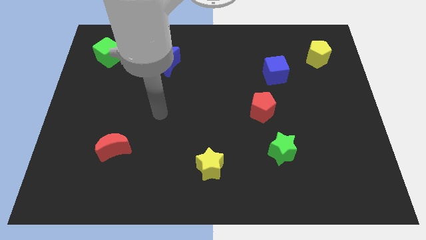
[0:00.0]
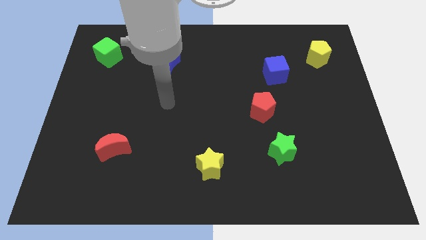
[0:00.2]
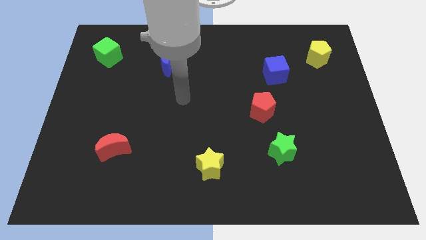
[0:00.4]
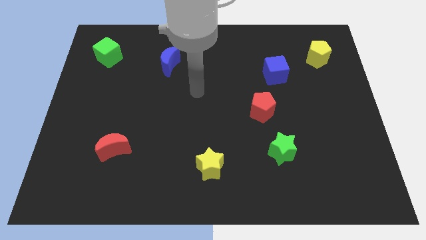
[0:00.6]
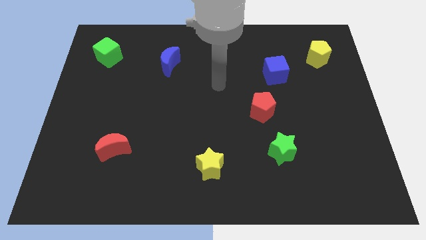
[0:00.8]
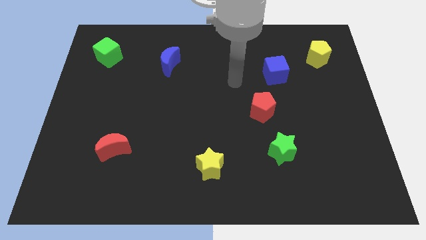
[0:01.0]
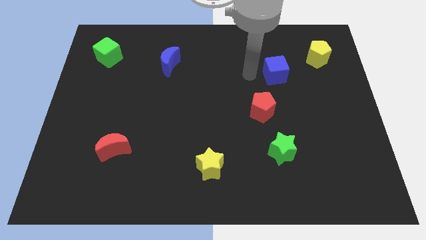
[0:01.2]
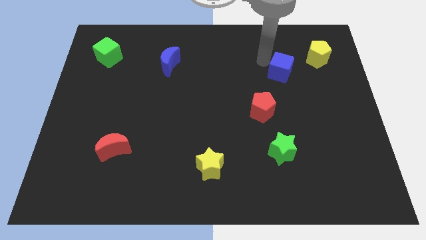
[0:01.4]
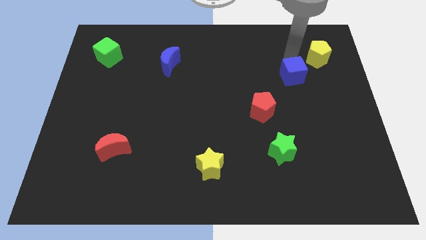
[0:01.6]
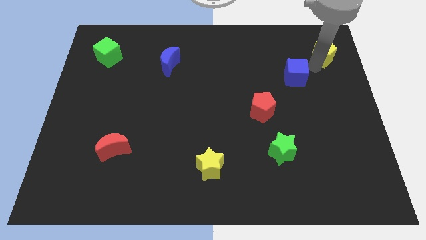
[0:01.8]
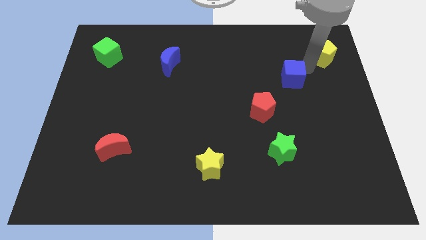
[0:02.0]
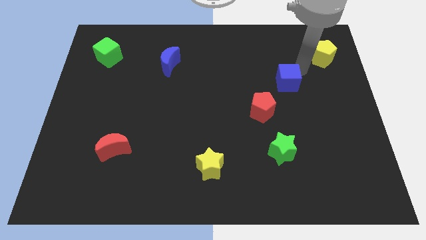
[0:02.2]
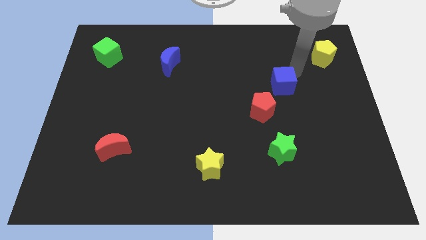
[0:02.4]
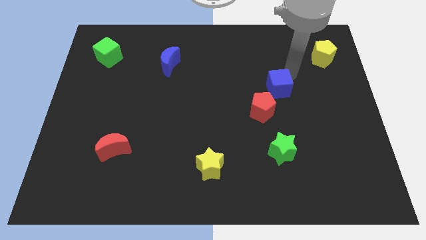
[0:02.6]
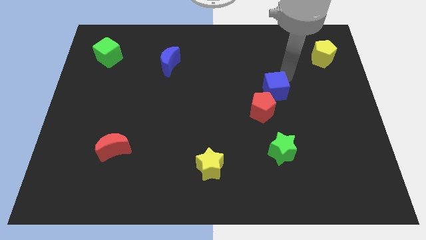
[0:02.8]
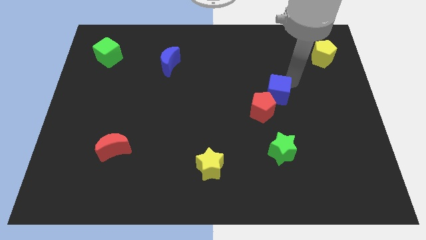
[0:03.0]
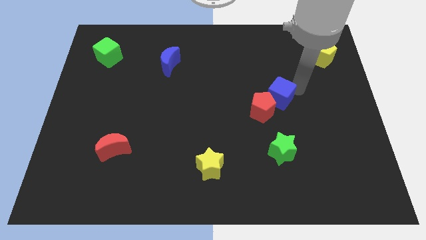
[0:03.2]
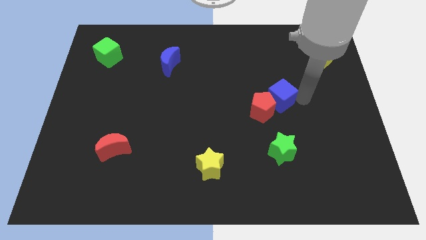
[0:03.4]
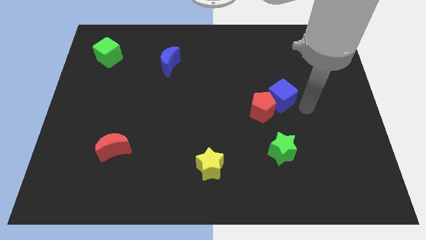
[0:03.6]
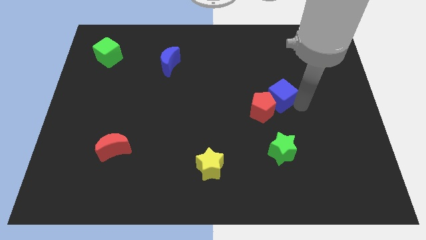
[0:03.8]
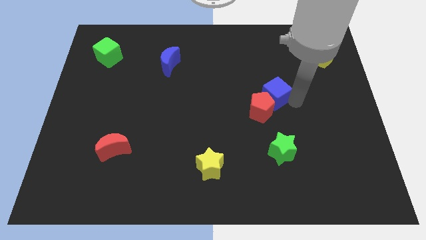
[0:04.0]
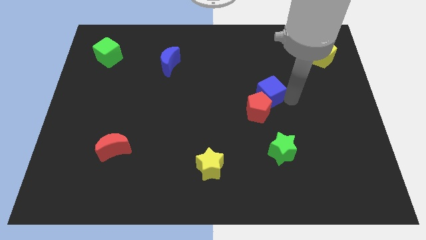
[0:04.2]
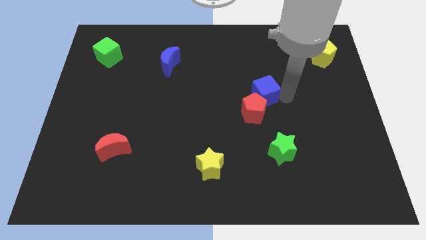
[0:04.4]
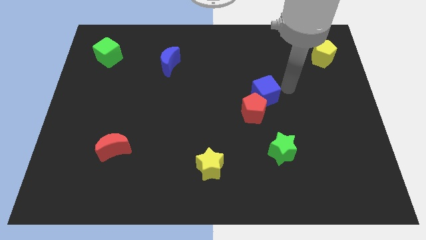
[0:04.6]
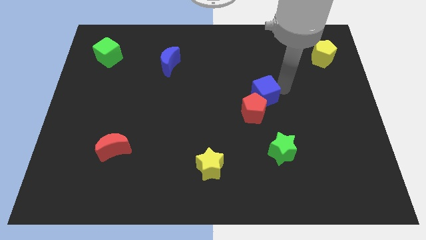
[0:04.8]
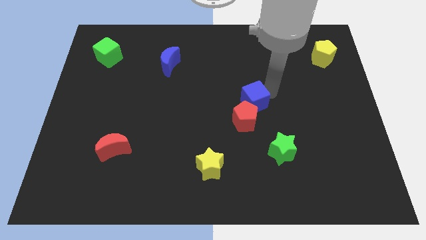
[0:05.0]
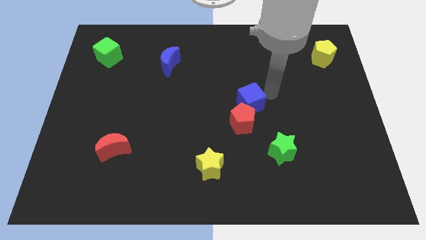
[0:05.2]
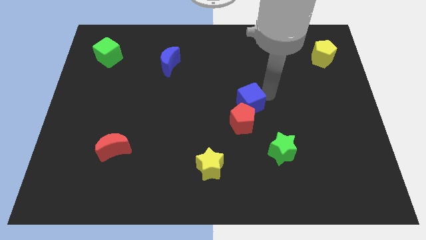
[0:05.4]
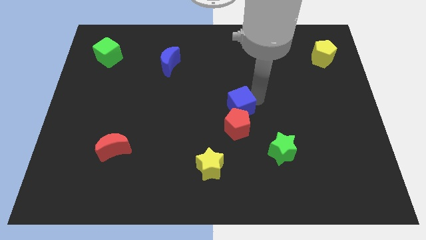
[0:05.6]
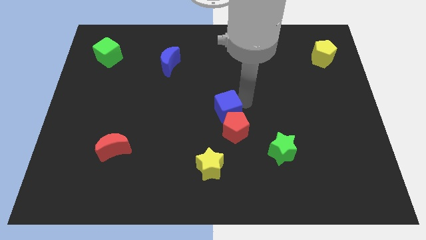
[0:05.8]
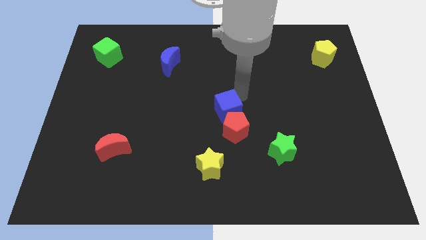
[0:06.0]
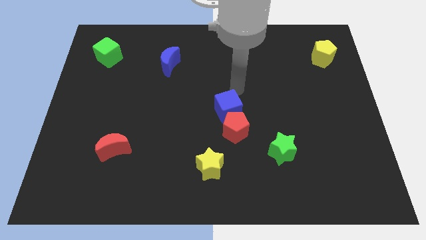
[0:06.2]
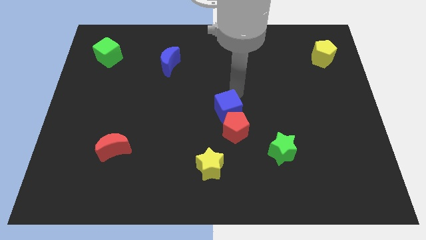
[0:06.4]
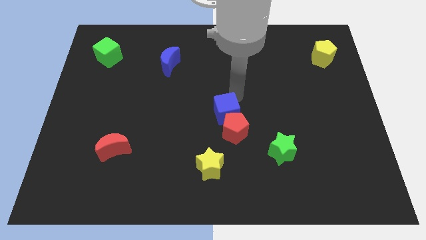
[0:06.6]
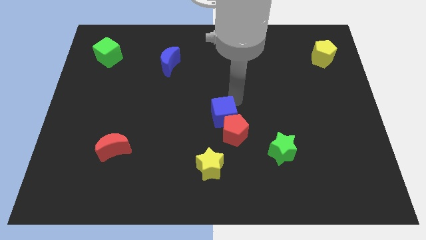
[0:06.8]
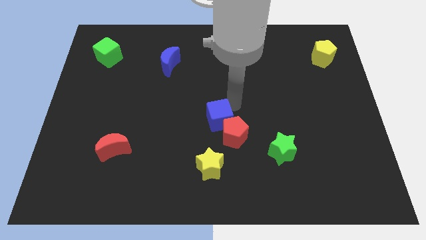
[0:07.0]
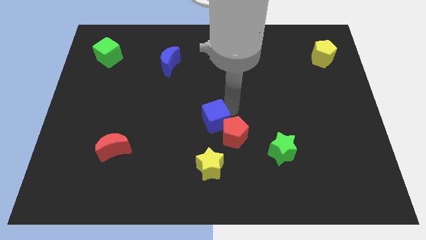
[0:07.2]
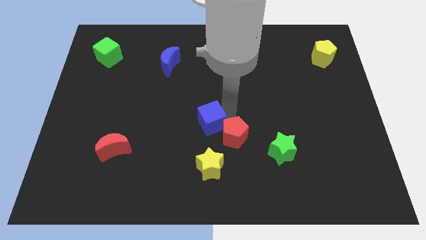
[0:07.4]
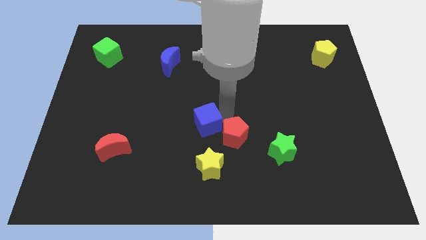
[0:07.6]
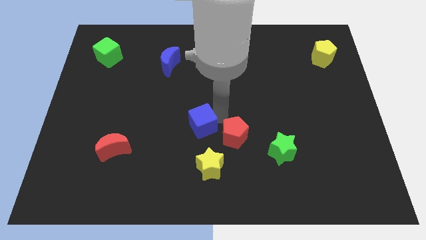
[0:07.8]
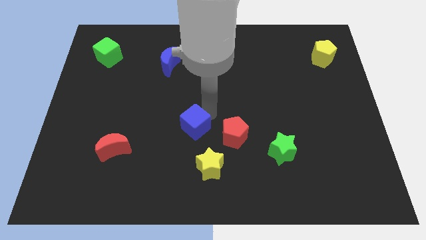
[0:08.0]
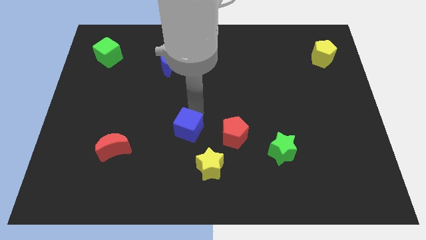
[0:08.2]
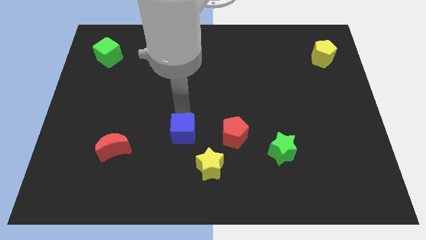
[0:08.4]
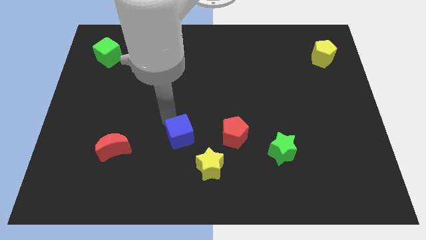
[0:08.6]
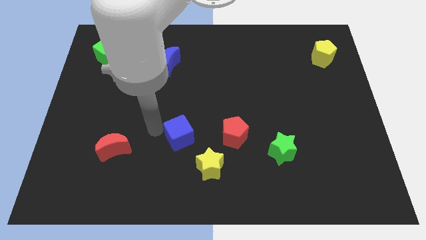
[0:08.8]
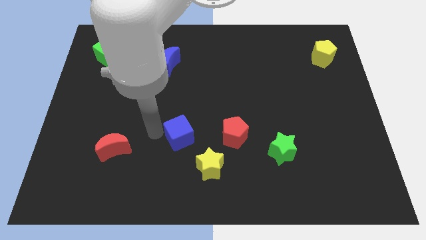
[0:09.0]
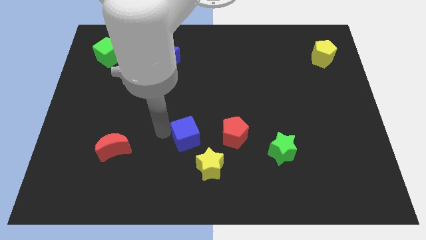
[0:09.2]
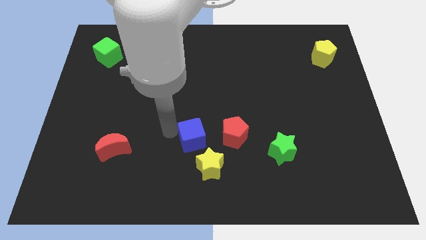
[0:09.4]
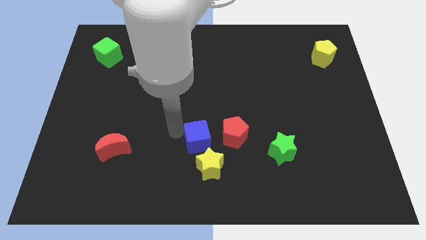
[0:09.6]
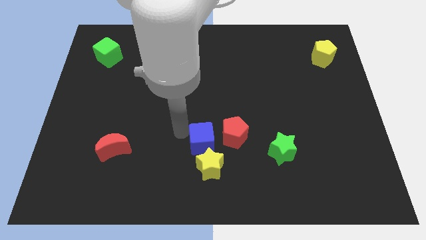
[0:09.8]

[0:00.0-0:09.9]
slide the blue cube next to the yellow star

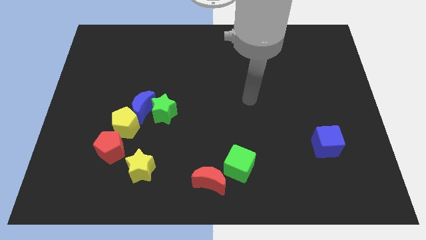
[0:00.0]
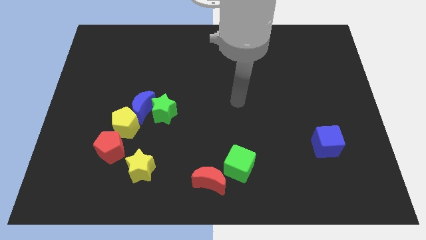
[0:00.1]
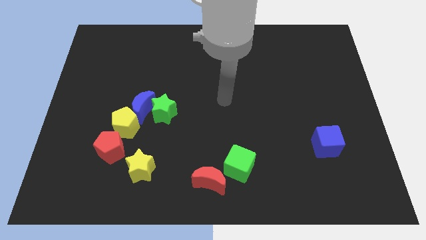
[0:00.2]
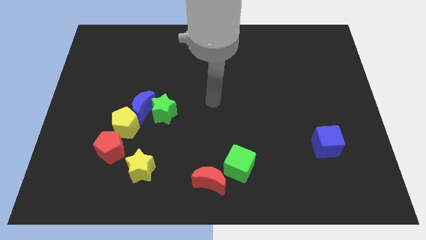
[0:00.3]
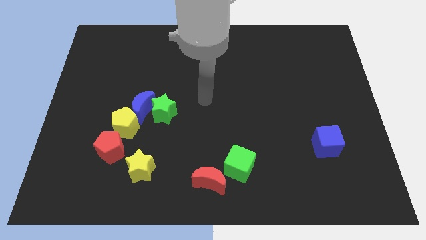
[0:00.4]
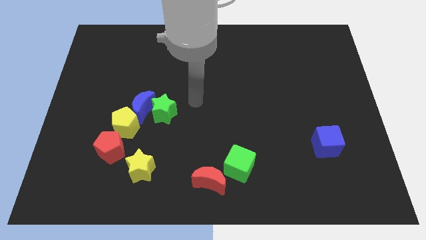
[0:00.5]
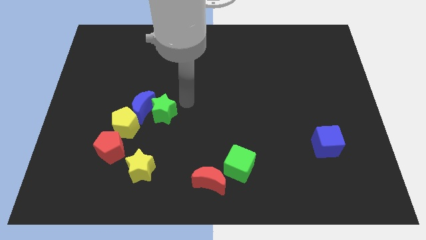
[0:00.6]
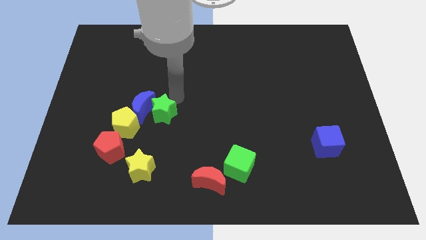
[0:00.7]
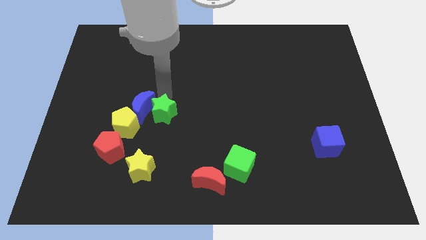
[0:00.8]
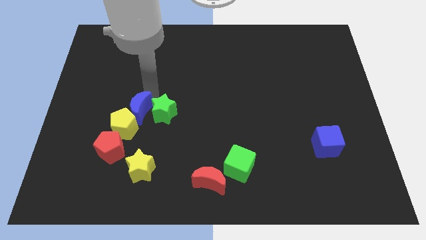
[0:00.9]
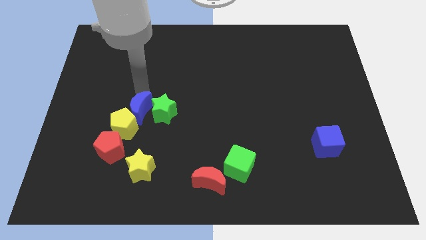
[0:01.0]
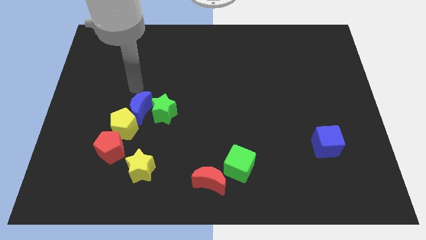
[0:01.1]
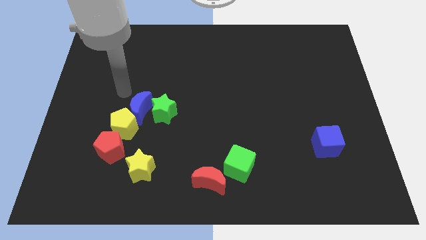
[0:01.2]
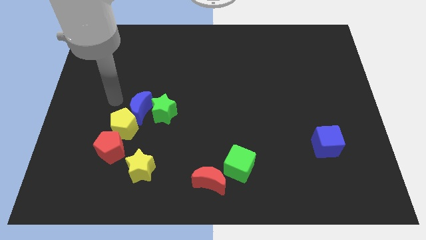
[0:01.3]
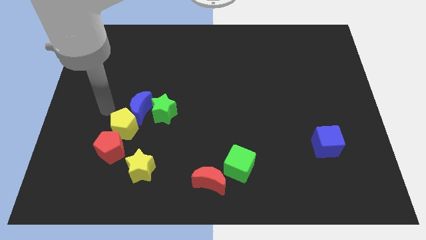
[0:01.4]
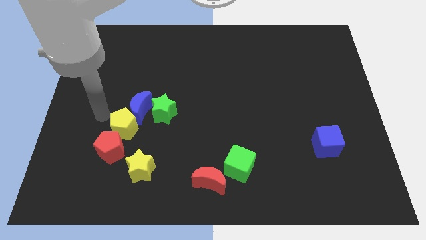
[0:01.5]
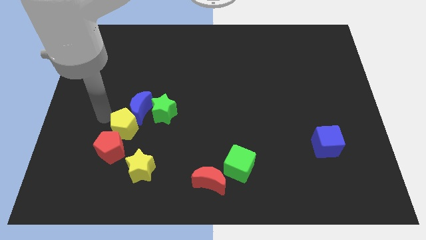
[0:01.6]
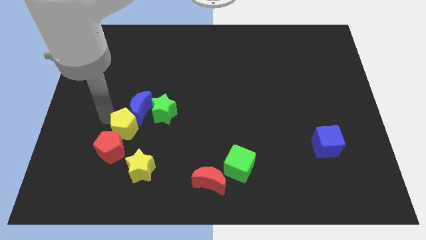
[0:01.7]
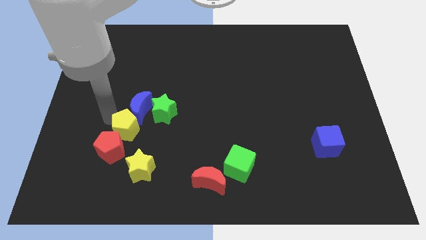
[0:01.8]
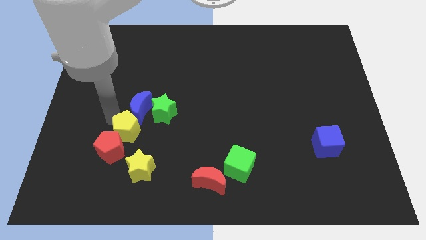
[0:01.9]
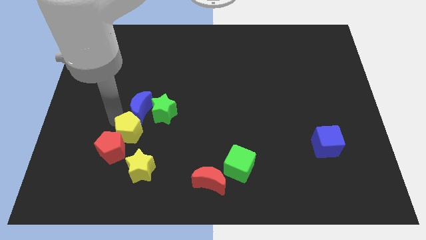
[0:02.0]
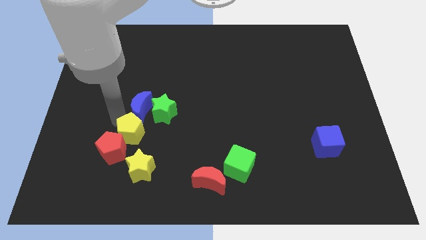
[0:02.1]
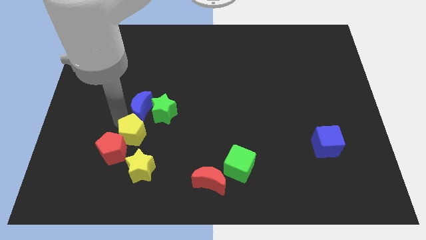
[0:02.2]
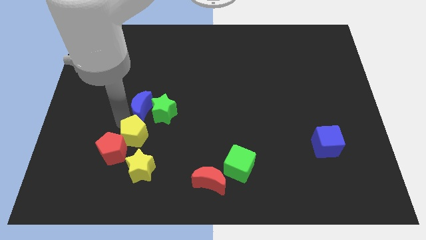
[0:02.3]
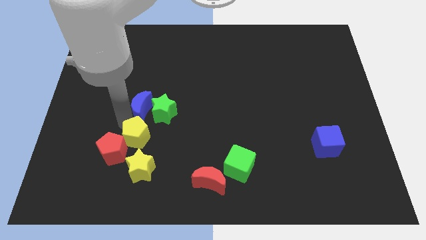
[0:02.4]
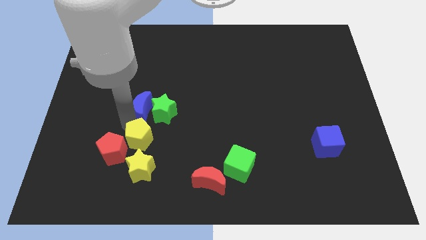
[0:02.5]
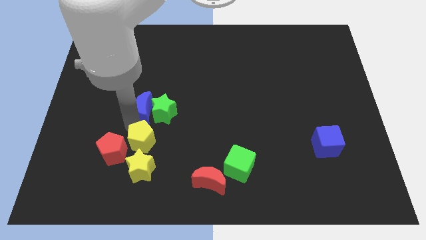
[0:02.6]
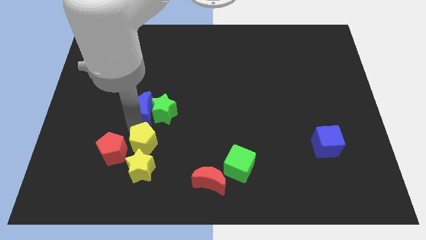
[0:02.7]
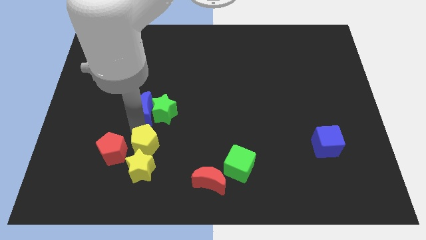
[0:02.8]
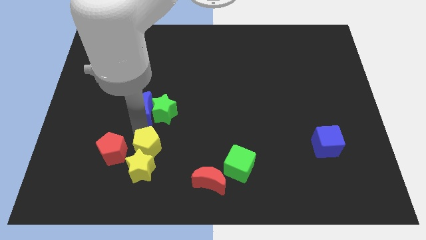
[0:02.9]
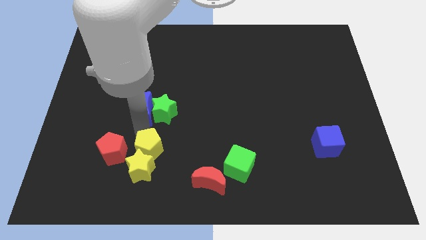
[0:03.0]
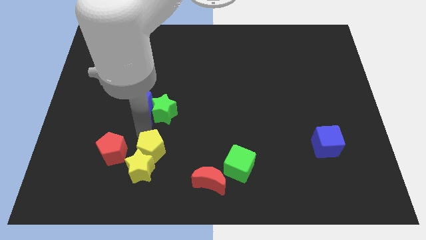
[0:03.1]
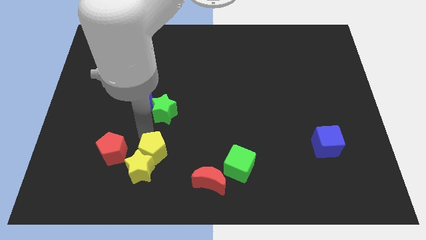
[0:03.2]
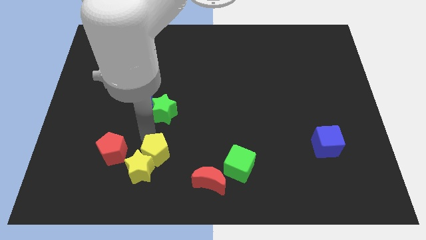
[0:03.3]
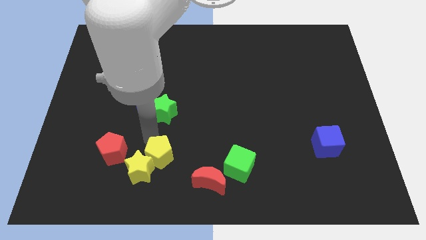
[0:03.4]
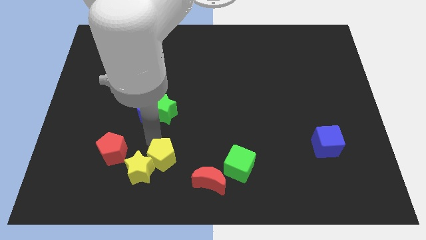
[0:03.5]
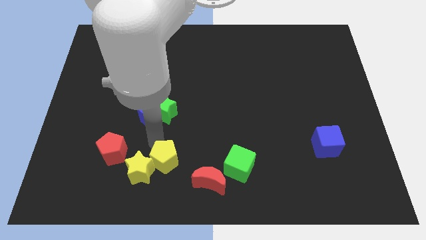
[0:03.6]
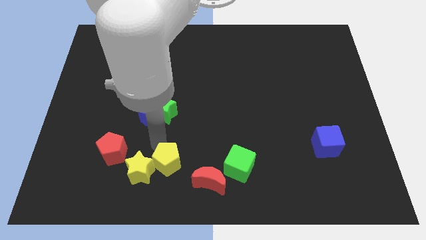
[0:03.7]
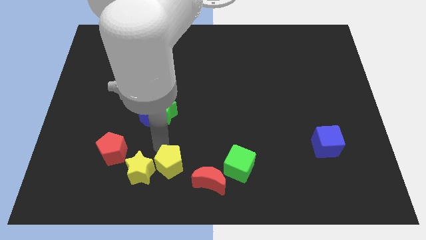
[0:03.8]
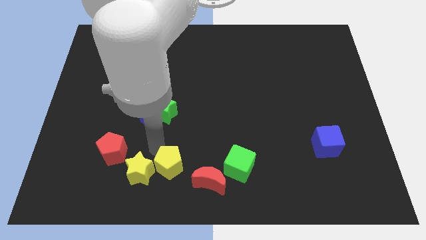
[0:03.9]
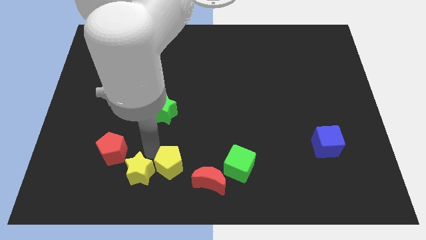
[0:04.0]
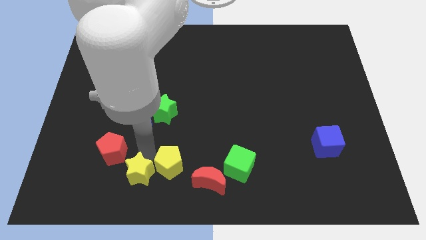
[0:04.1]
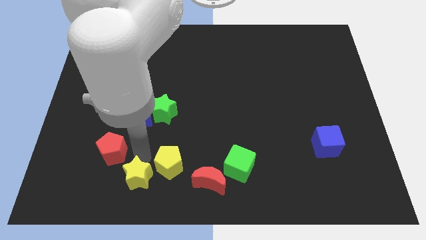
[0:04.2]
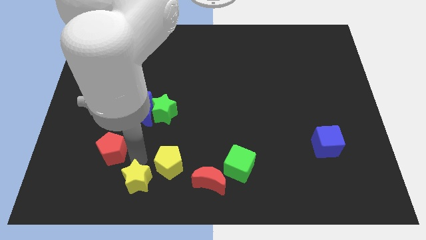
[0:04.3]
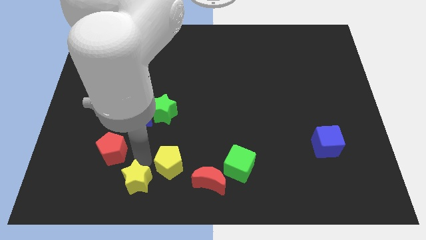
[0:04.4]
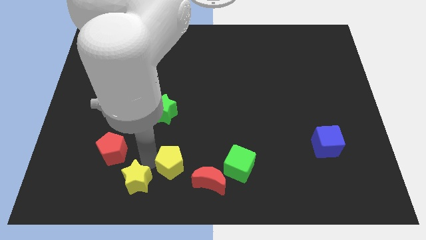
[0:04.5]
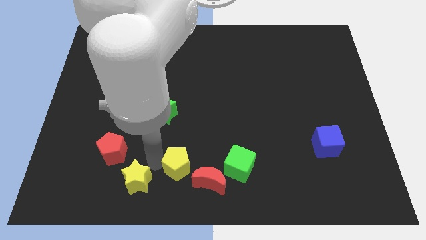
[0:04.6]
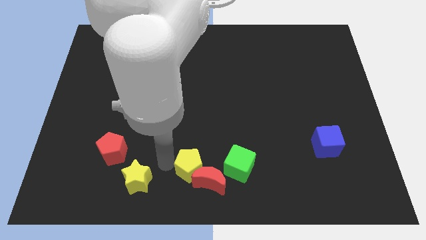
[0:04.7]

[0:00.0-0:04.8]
slide the yellow pentagon to the red moon
